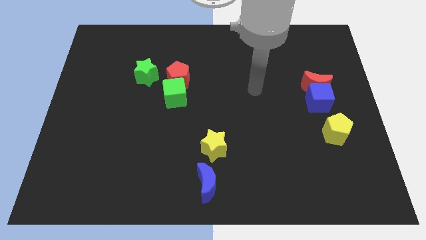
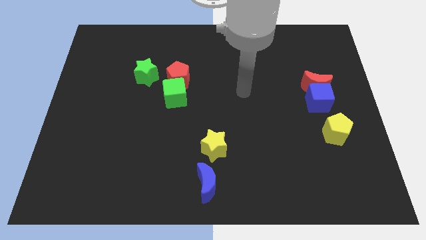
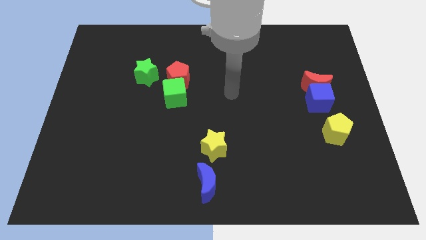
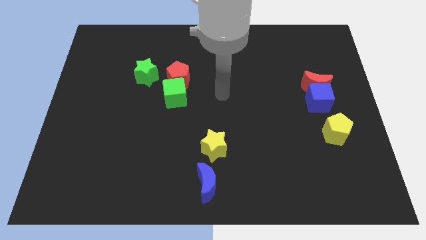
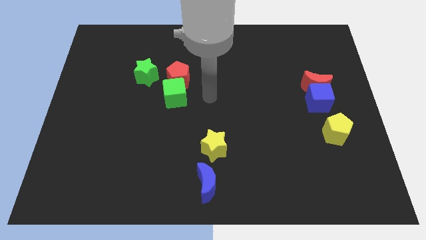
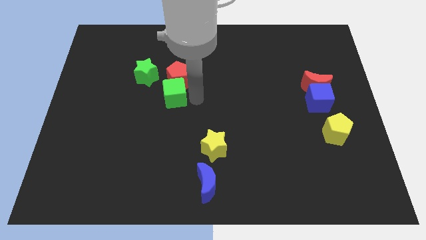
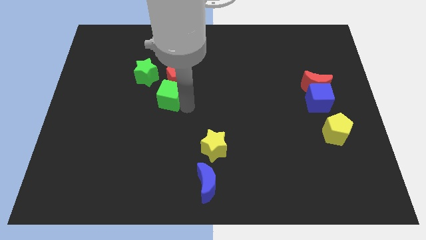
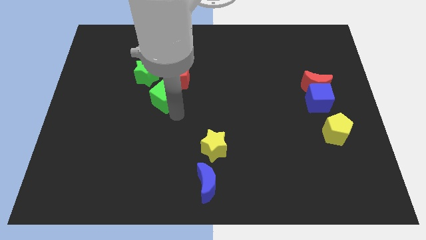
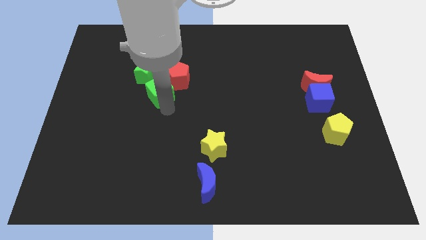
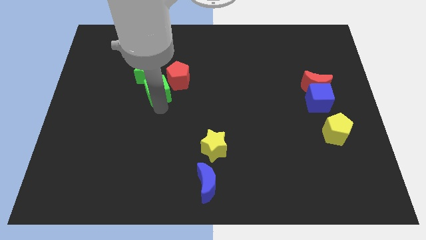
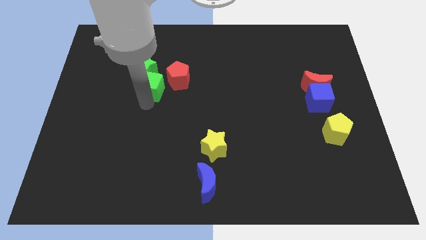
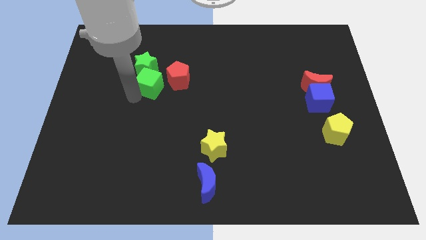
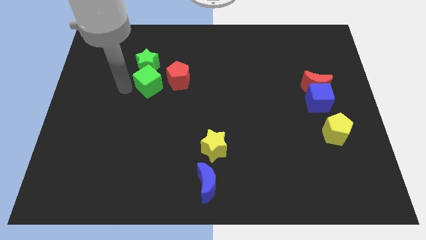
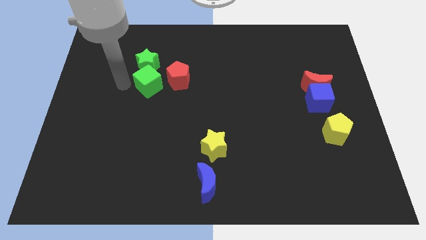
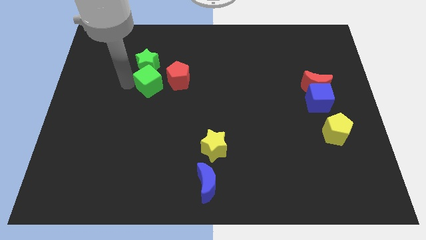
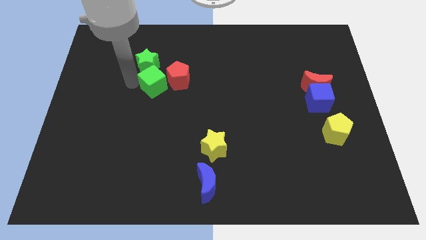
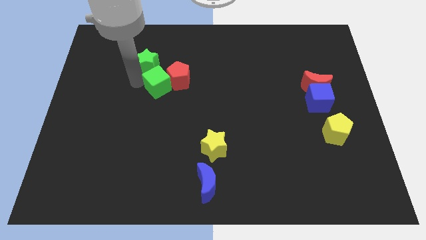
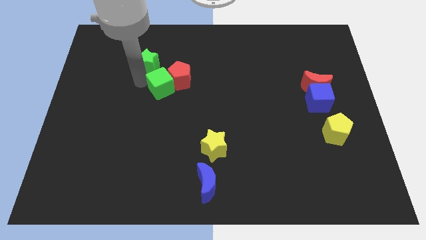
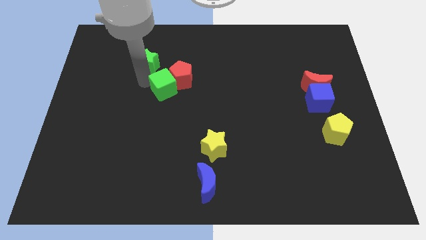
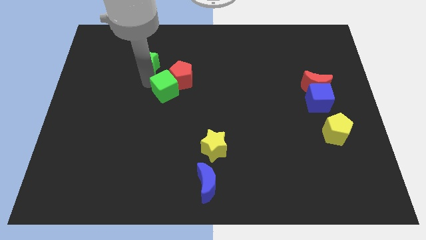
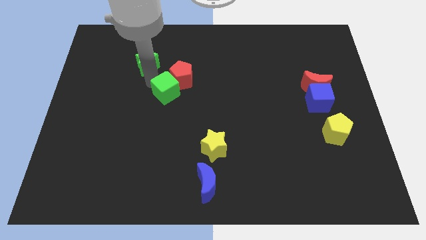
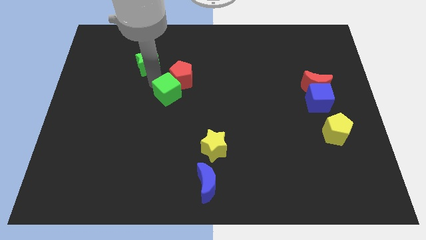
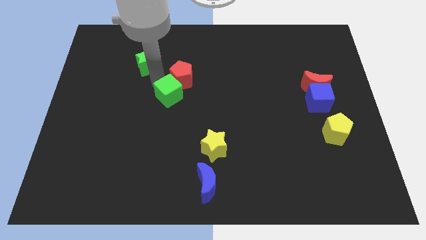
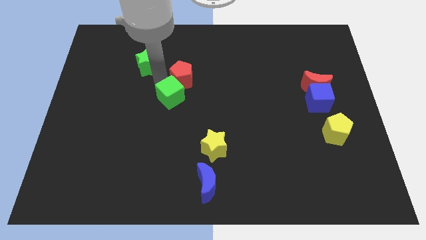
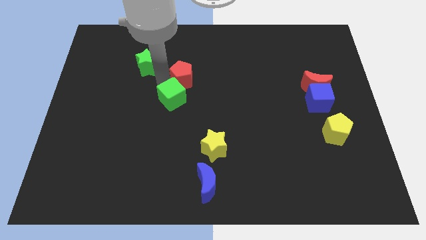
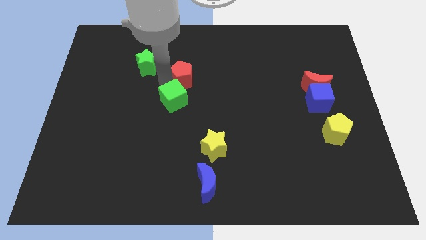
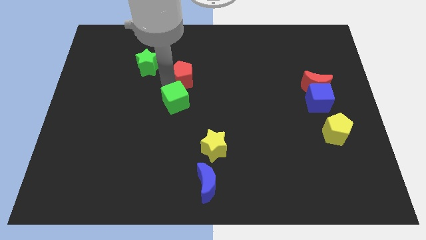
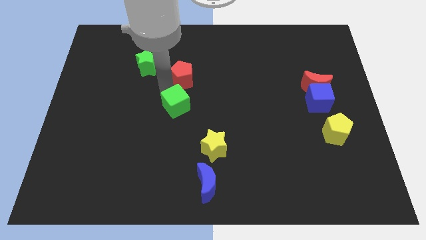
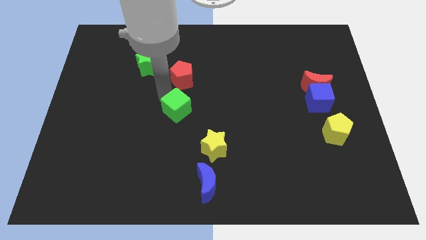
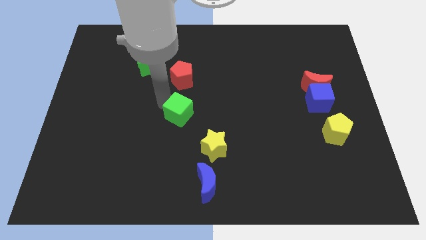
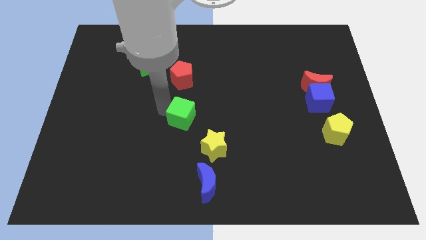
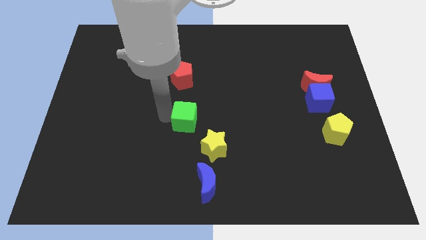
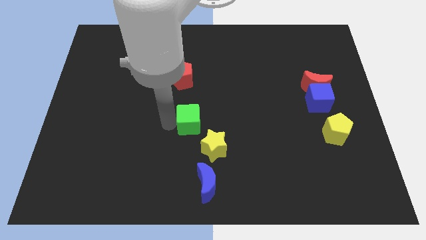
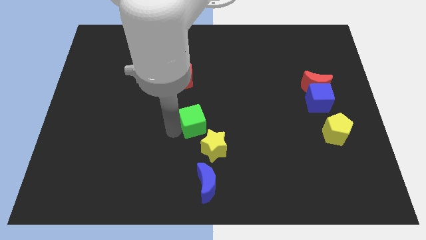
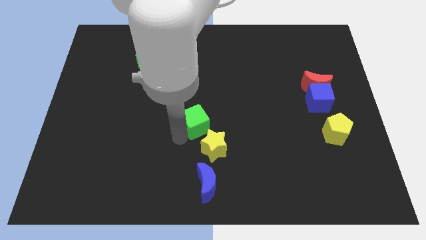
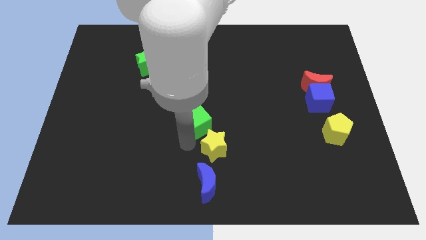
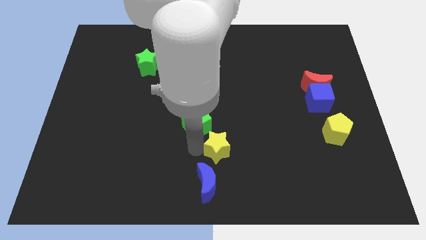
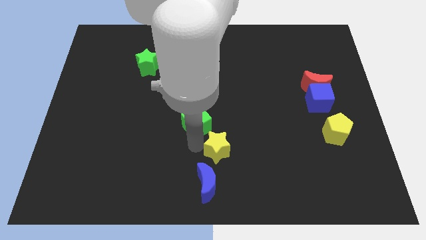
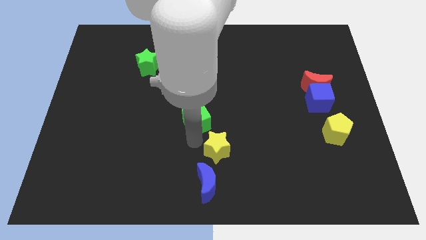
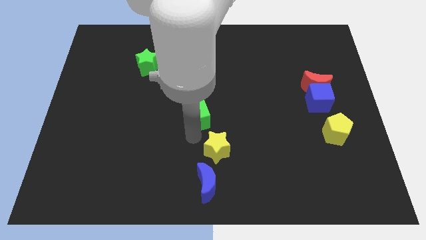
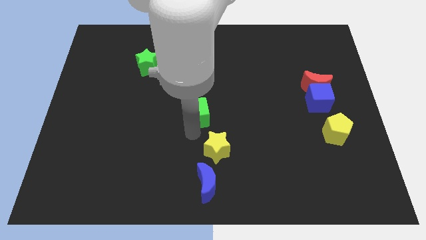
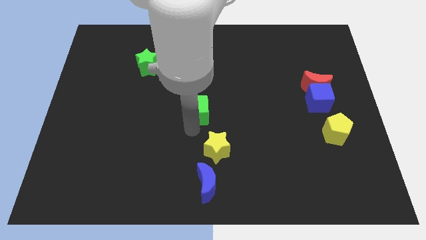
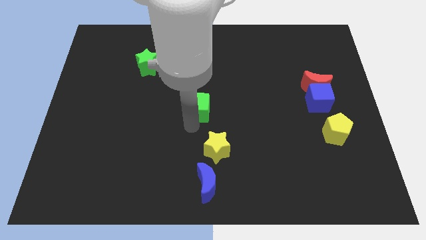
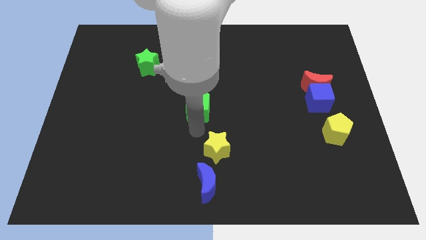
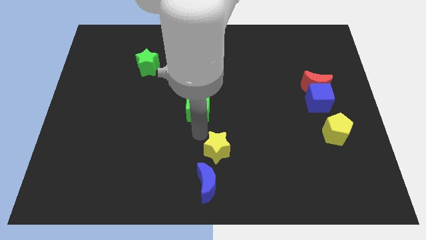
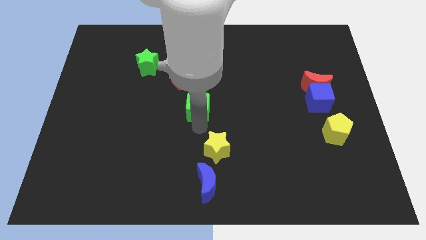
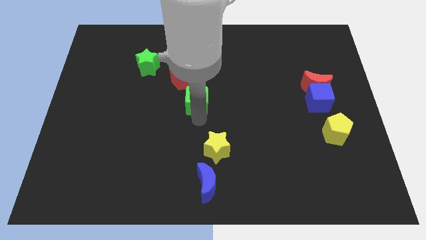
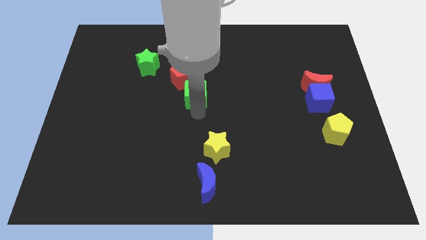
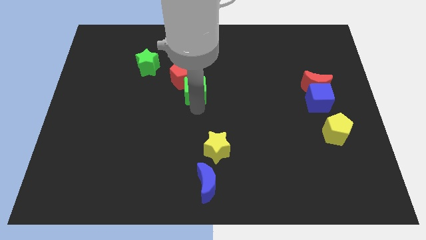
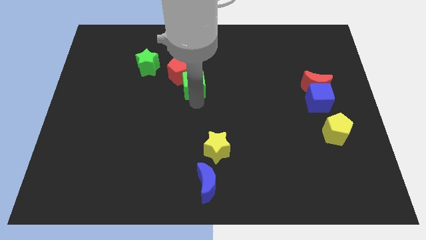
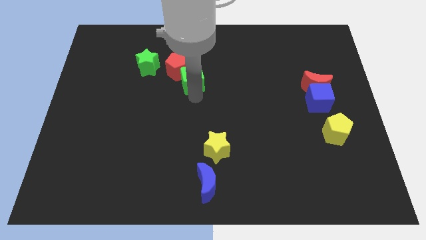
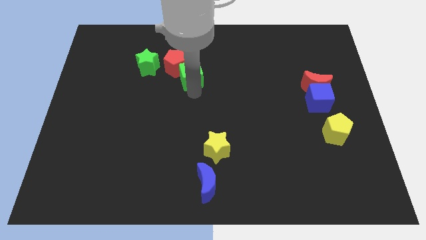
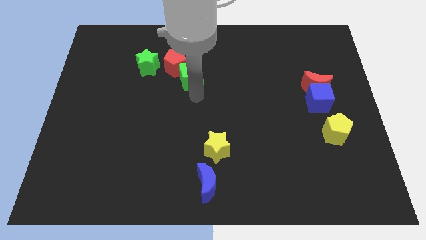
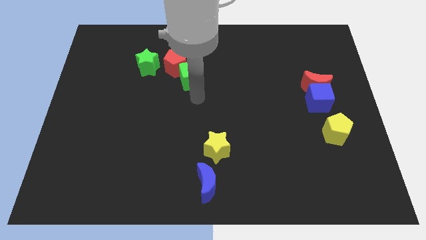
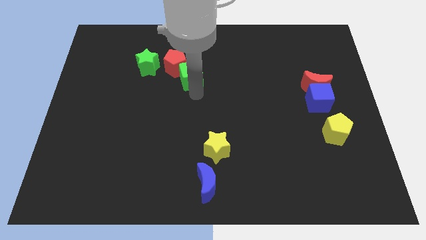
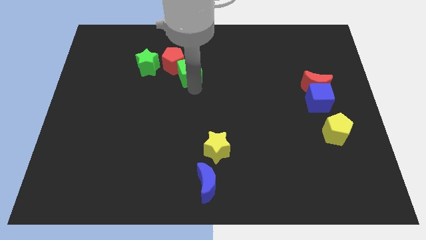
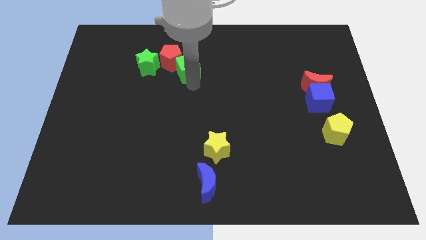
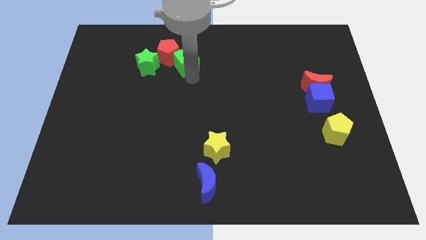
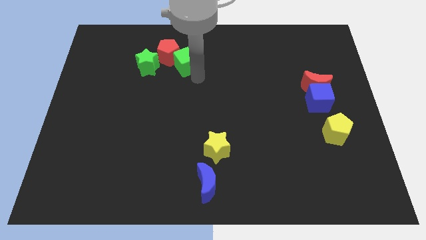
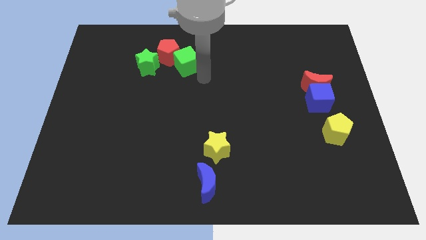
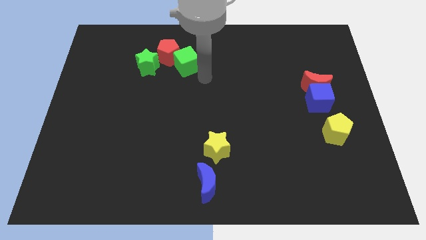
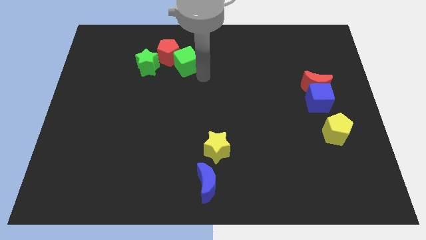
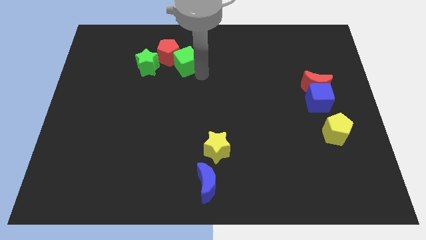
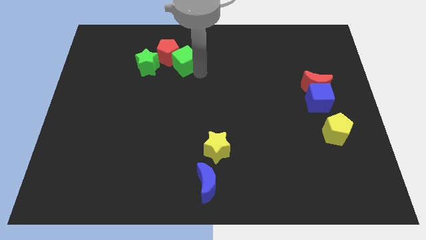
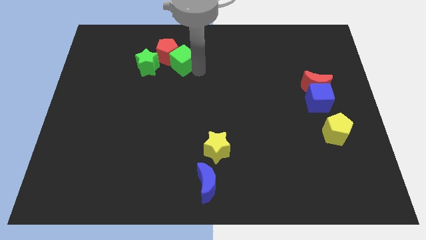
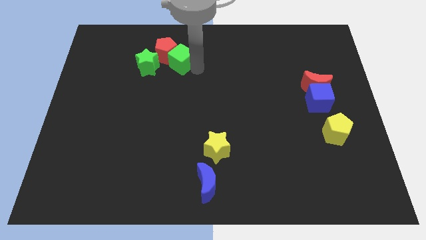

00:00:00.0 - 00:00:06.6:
put the green cube to the top right of the green star

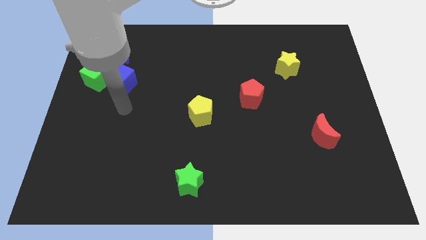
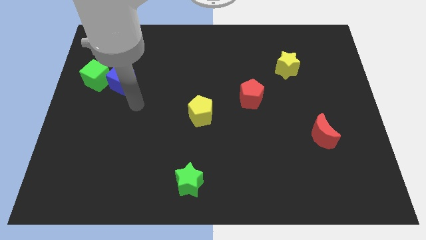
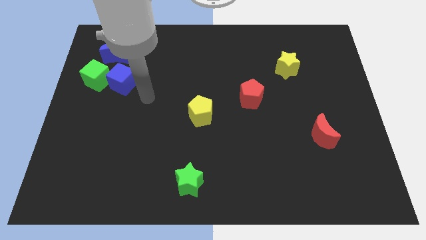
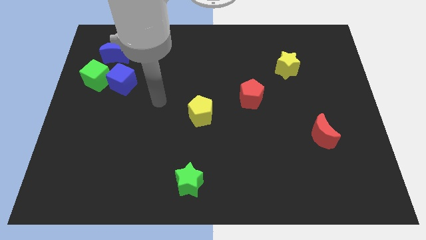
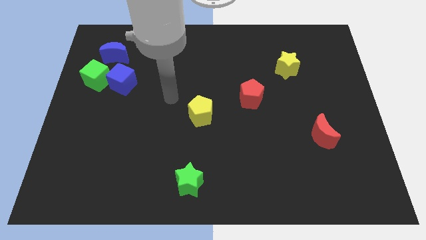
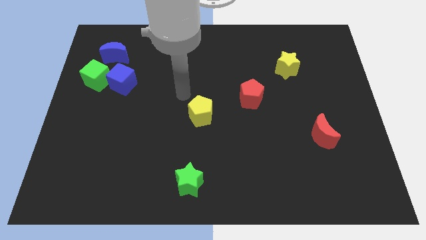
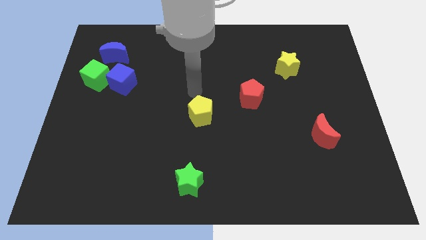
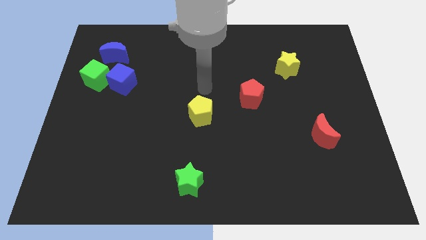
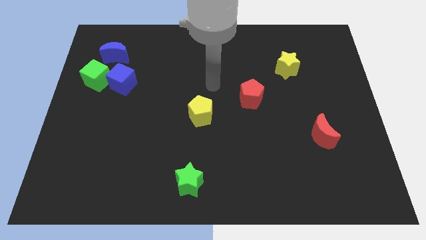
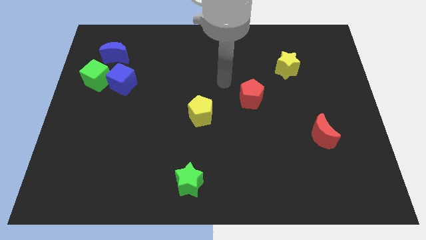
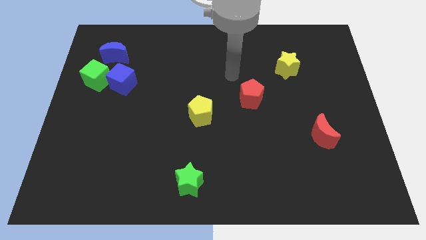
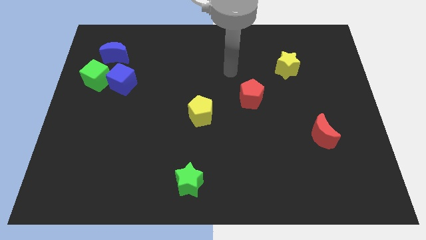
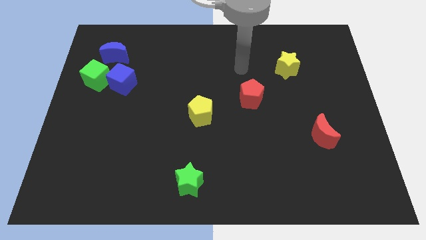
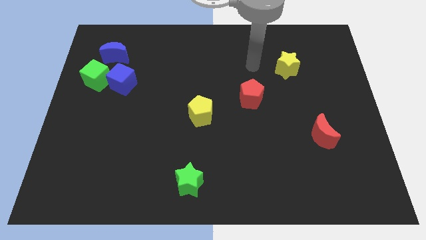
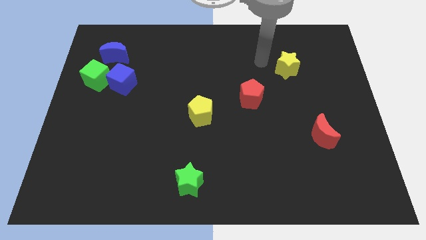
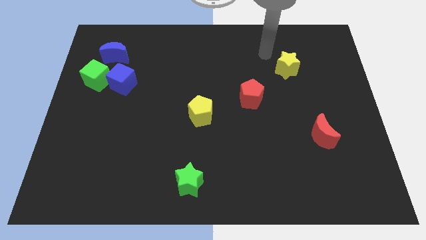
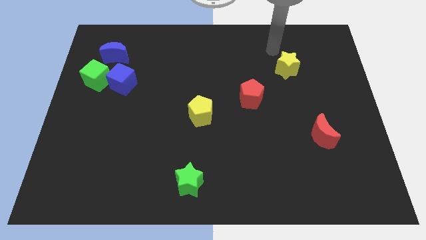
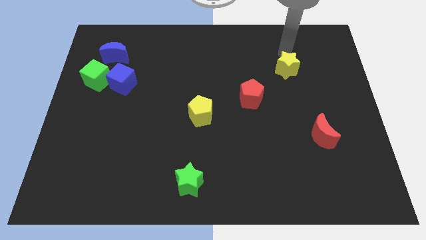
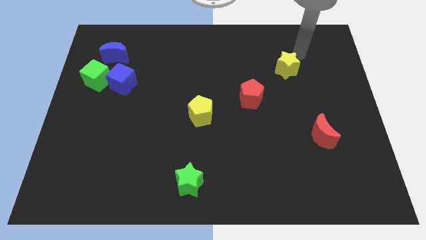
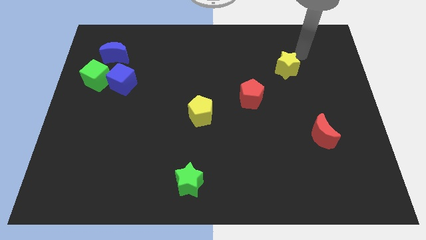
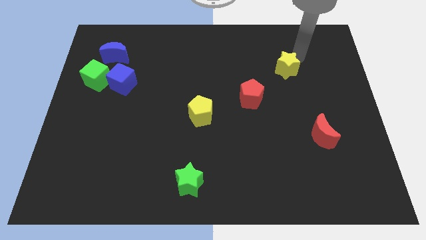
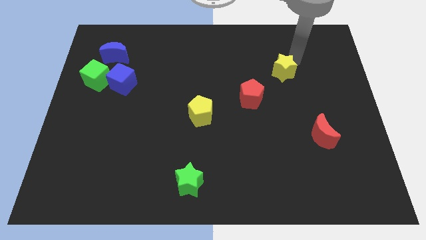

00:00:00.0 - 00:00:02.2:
move the yellow star to the top right of the red pentagon
